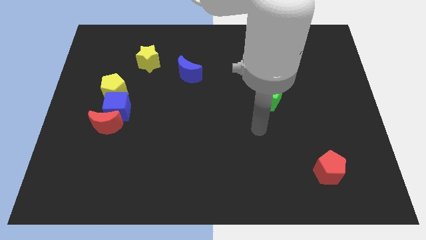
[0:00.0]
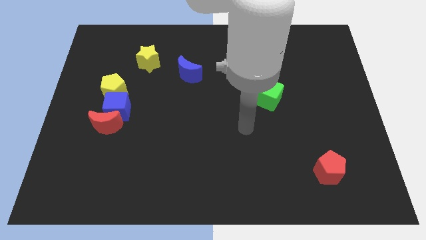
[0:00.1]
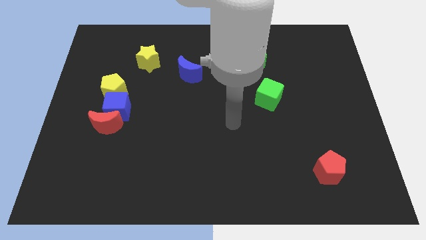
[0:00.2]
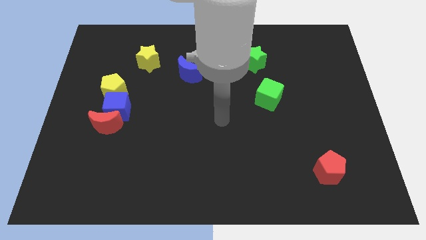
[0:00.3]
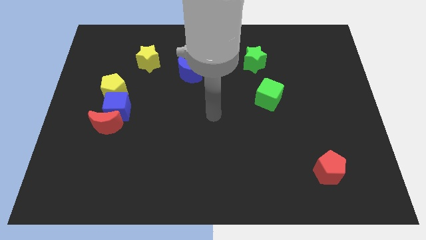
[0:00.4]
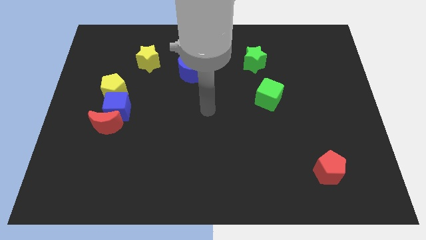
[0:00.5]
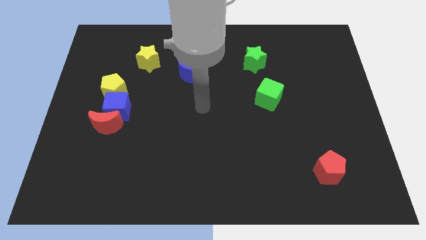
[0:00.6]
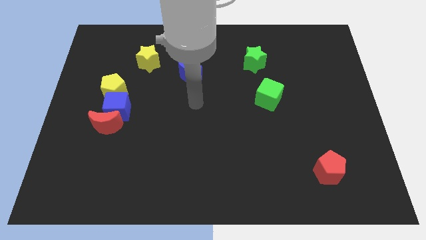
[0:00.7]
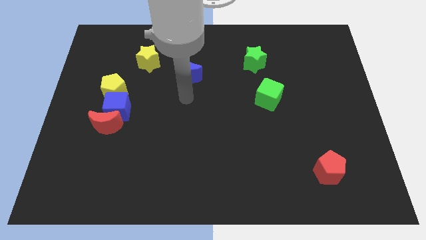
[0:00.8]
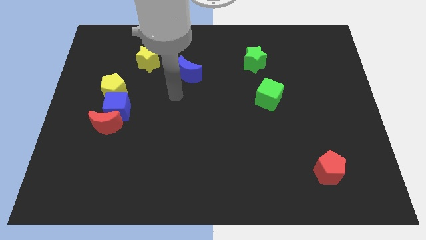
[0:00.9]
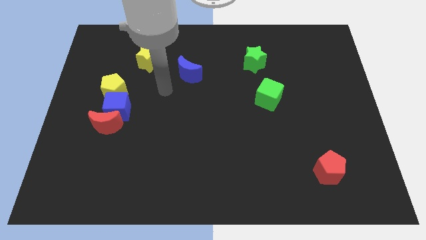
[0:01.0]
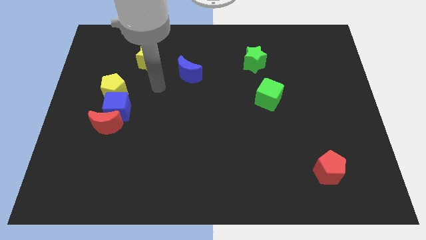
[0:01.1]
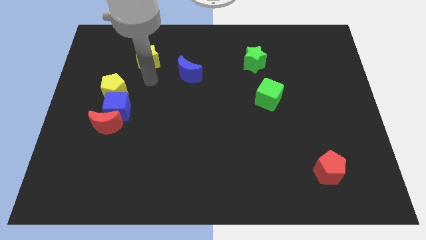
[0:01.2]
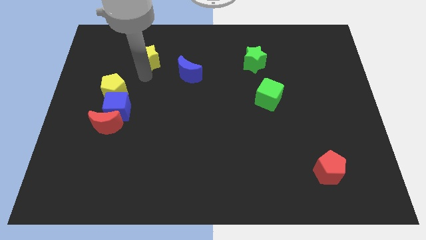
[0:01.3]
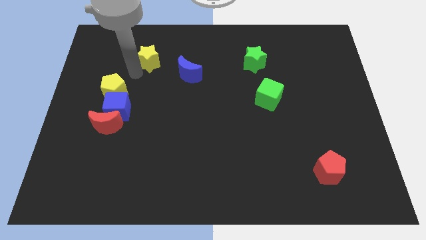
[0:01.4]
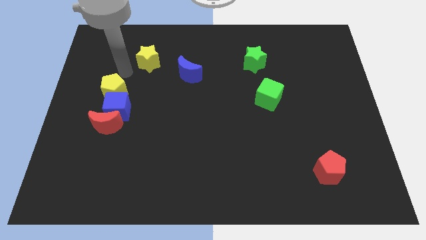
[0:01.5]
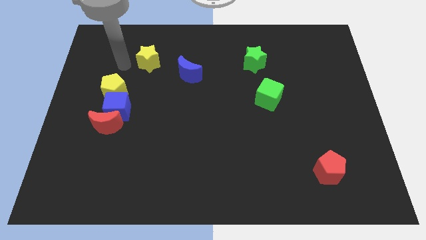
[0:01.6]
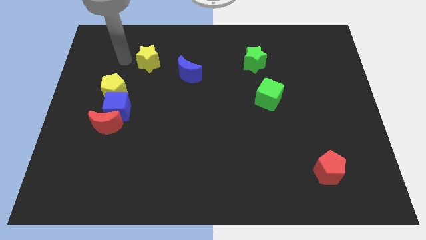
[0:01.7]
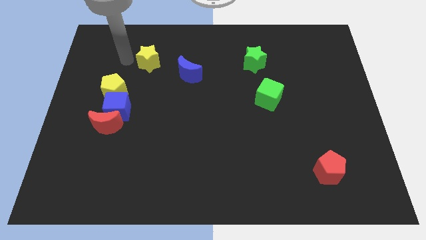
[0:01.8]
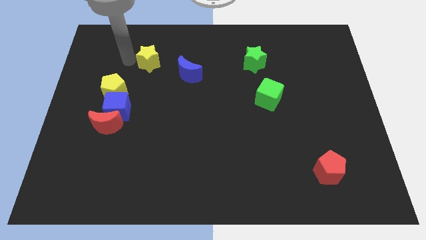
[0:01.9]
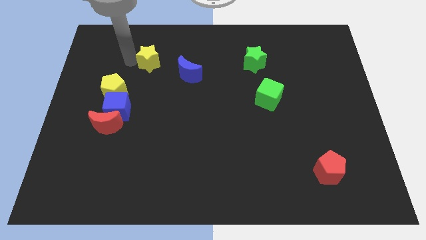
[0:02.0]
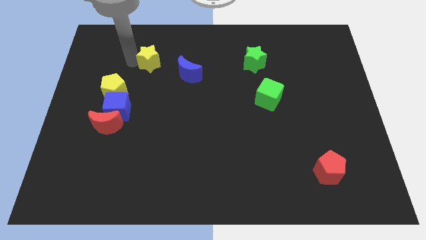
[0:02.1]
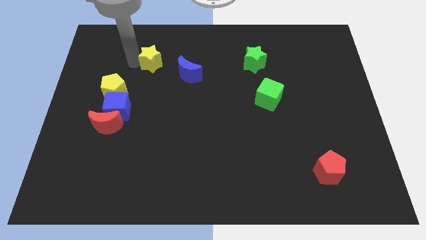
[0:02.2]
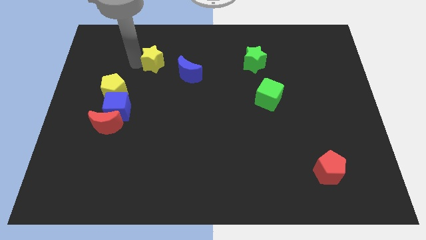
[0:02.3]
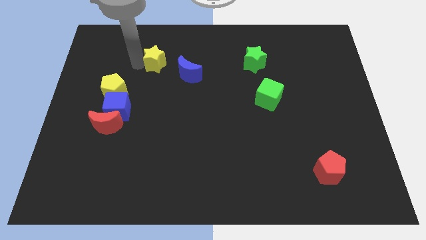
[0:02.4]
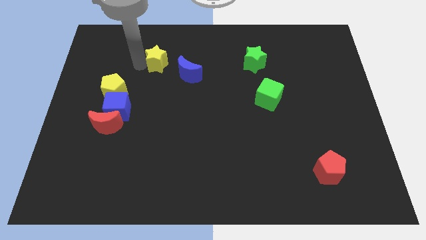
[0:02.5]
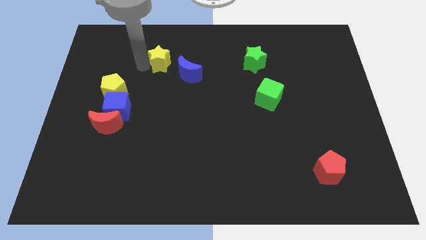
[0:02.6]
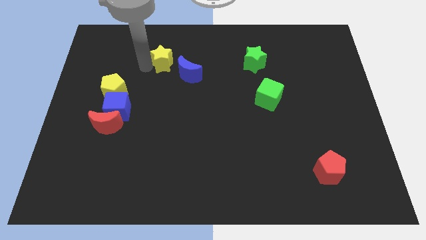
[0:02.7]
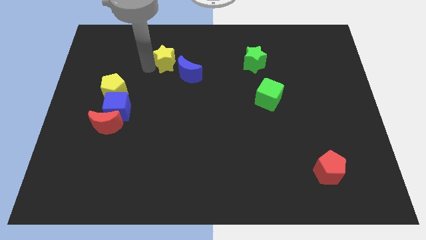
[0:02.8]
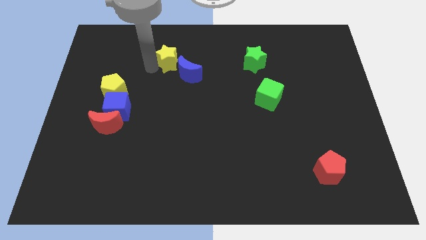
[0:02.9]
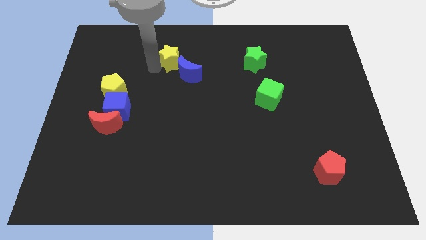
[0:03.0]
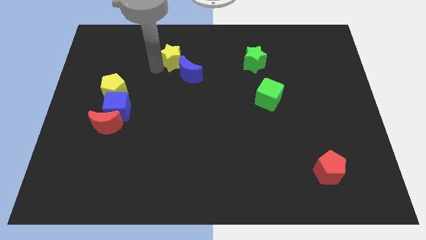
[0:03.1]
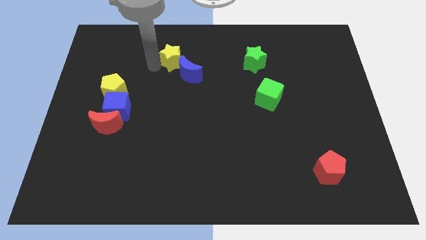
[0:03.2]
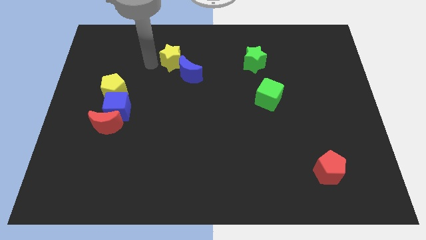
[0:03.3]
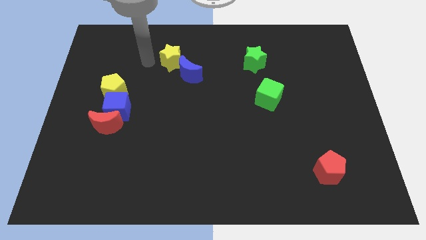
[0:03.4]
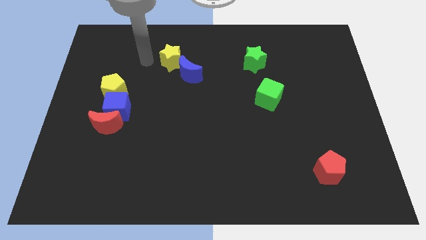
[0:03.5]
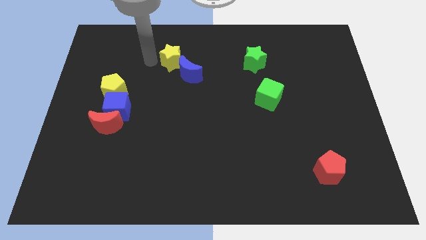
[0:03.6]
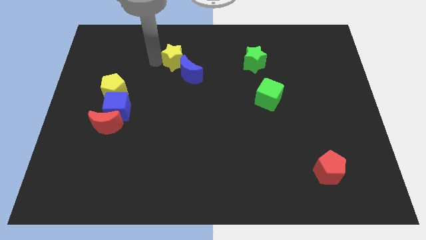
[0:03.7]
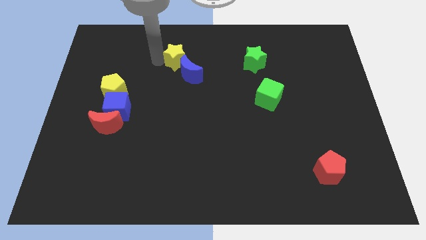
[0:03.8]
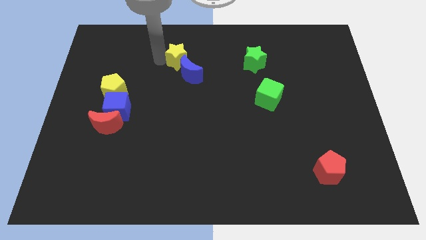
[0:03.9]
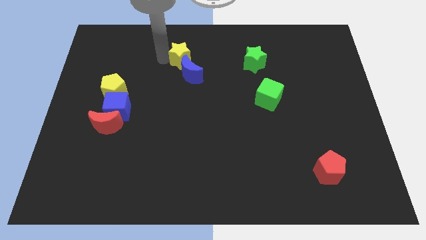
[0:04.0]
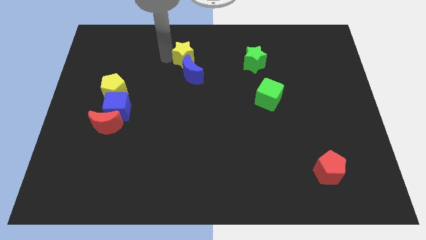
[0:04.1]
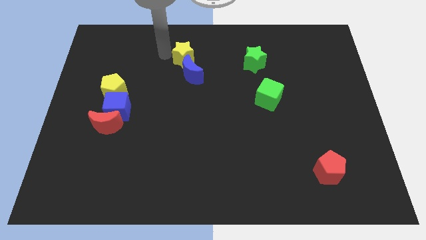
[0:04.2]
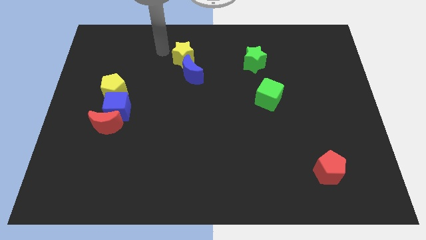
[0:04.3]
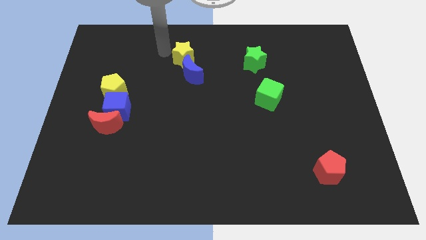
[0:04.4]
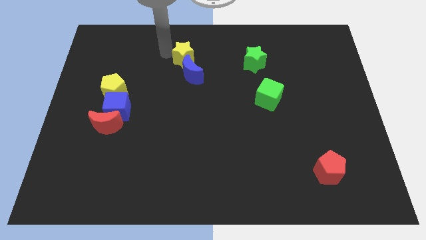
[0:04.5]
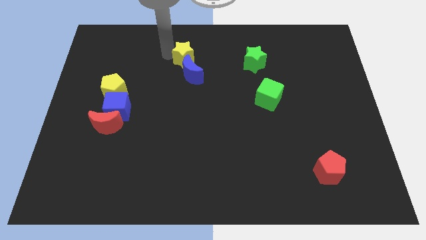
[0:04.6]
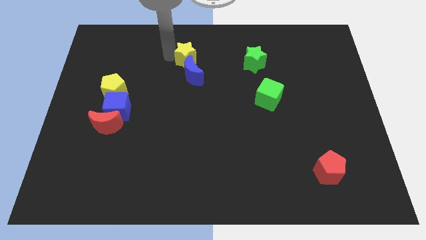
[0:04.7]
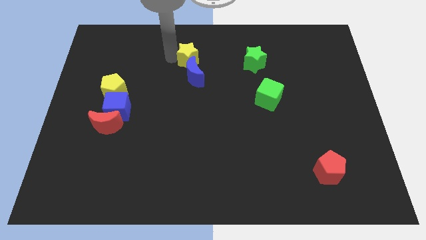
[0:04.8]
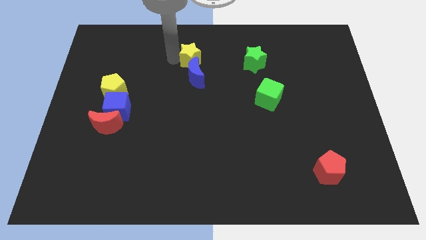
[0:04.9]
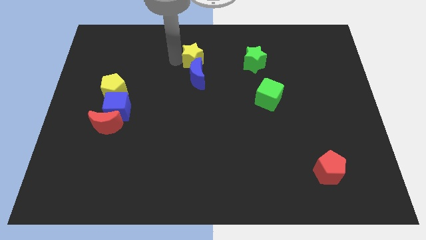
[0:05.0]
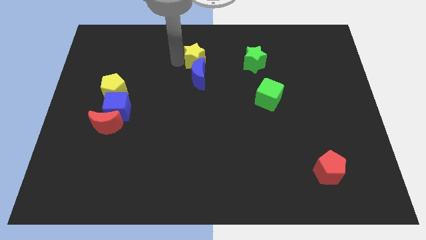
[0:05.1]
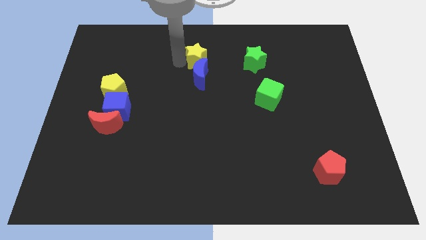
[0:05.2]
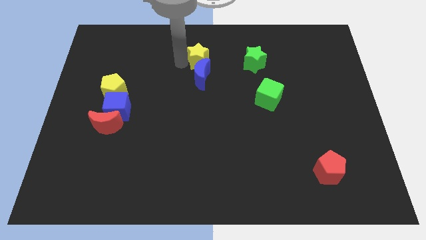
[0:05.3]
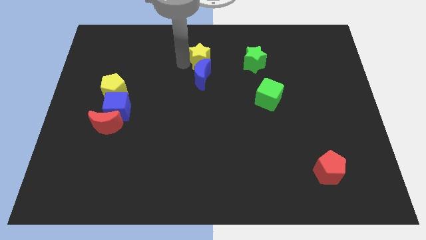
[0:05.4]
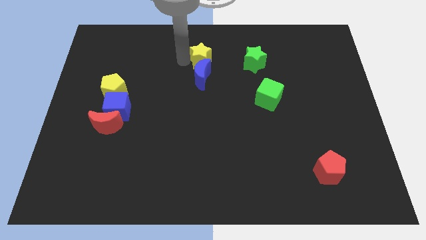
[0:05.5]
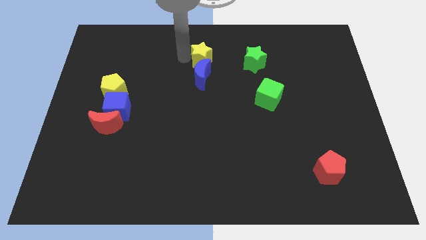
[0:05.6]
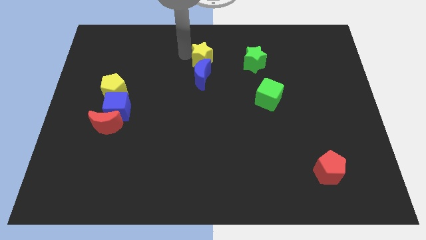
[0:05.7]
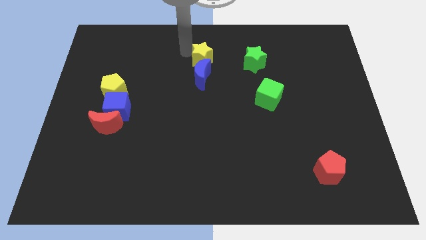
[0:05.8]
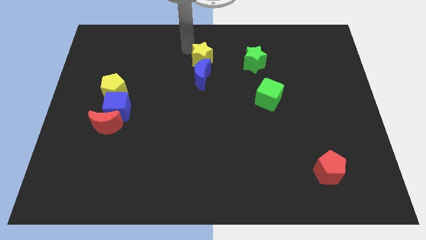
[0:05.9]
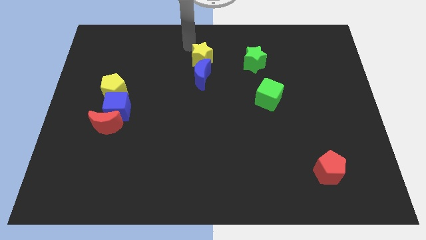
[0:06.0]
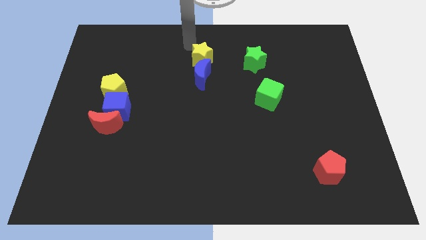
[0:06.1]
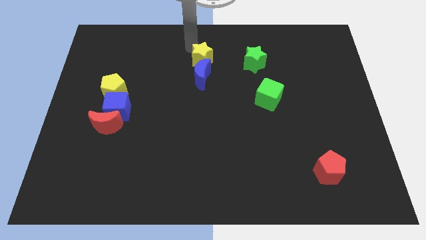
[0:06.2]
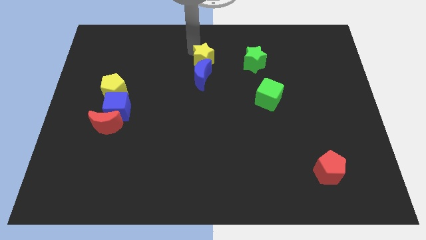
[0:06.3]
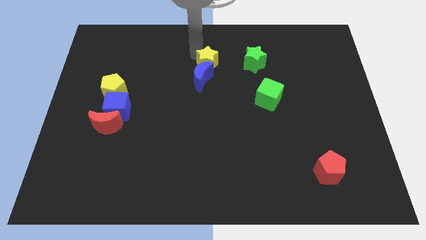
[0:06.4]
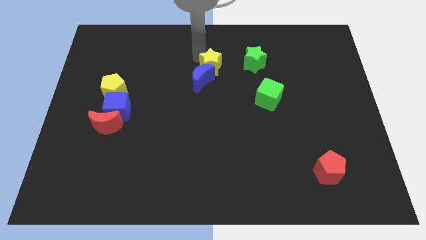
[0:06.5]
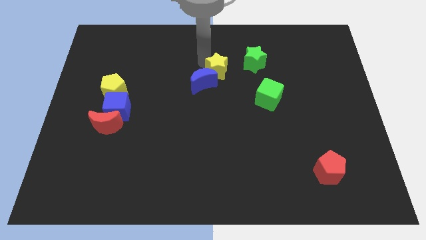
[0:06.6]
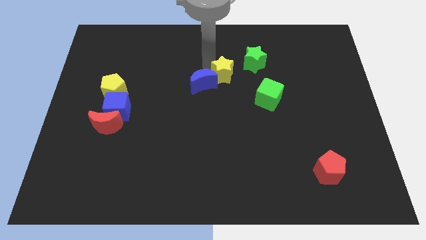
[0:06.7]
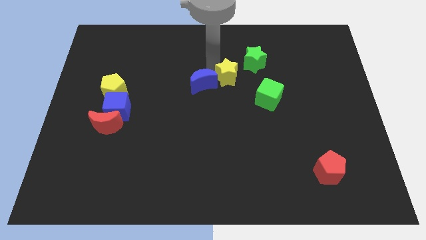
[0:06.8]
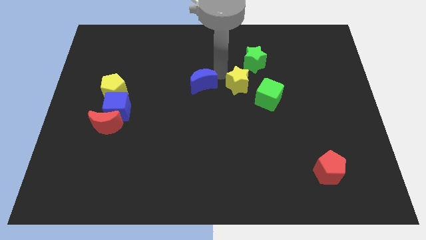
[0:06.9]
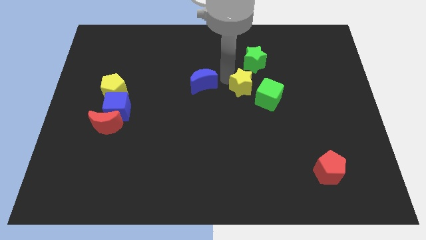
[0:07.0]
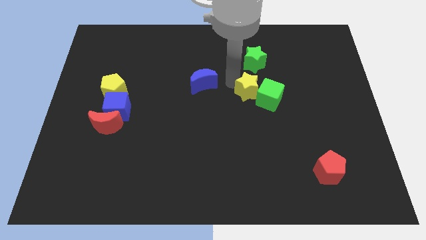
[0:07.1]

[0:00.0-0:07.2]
move the yellow star to the green cube

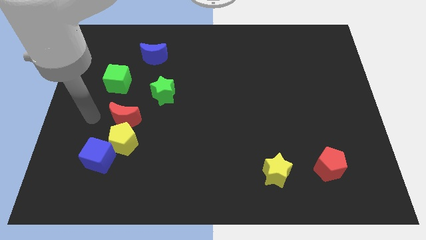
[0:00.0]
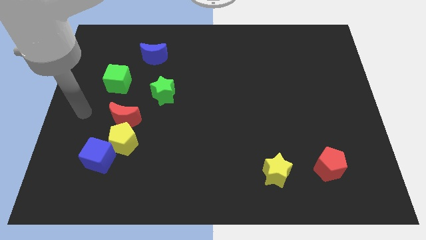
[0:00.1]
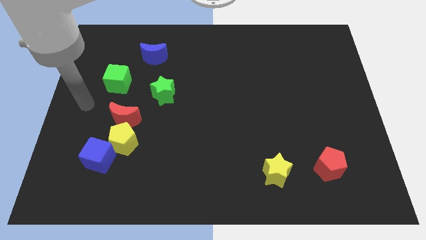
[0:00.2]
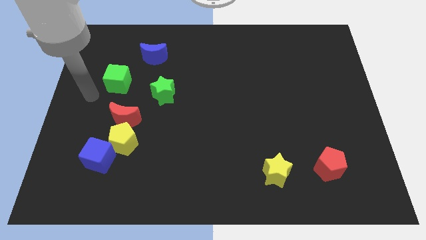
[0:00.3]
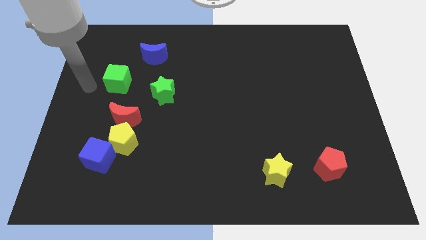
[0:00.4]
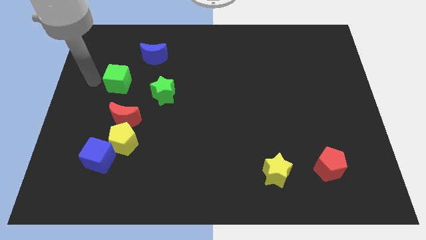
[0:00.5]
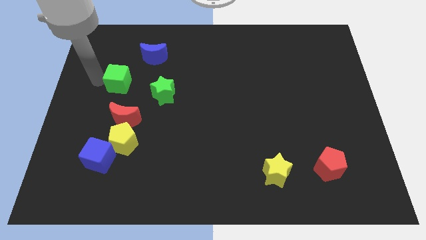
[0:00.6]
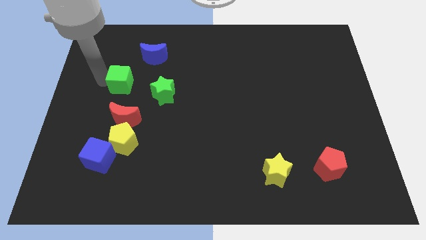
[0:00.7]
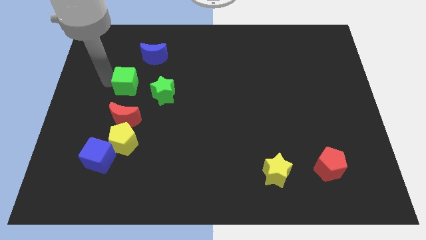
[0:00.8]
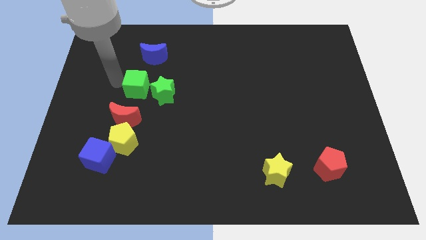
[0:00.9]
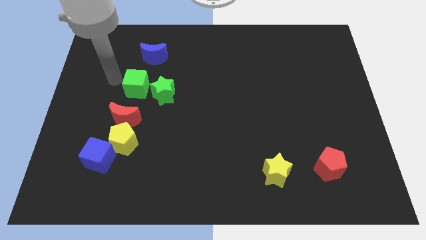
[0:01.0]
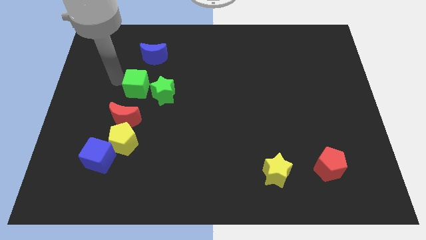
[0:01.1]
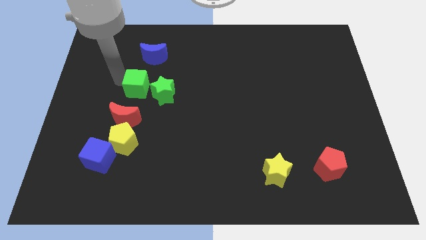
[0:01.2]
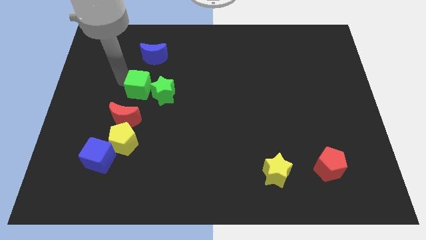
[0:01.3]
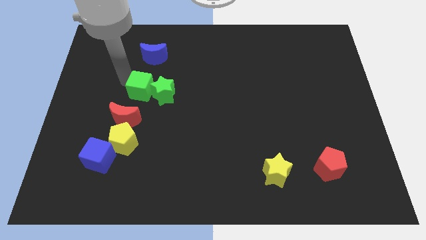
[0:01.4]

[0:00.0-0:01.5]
move the green cube next to the green star
